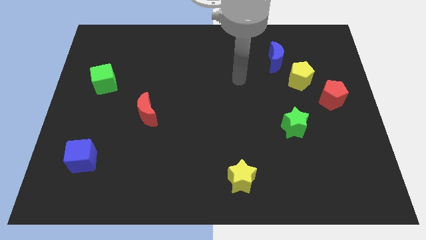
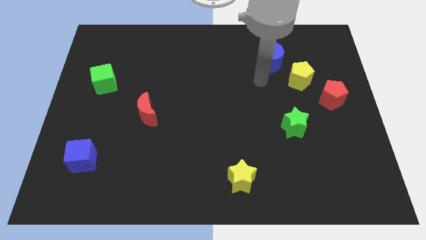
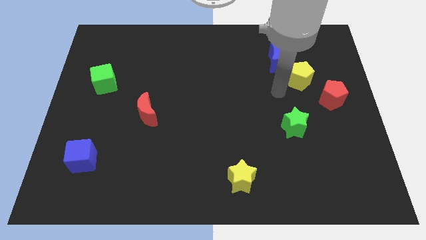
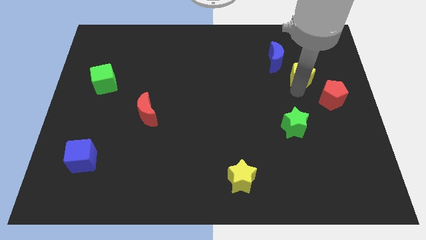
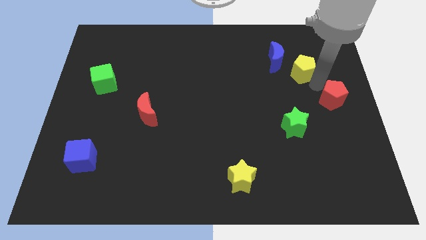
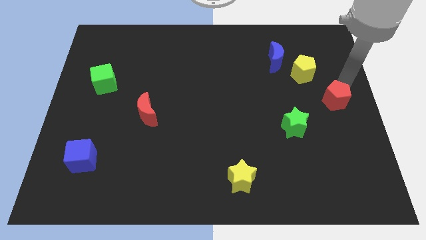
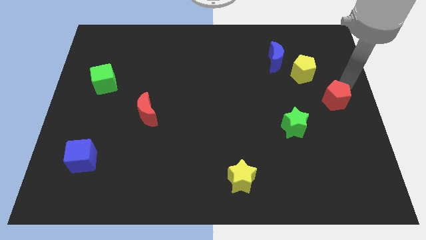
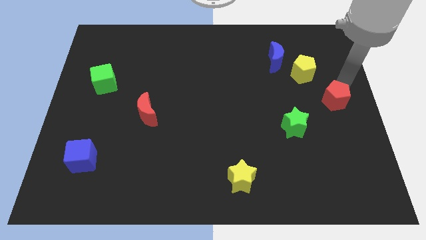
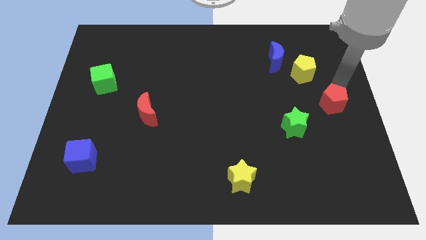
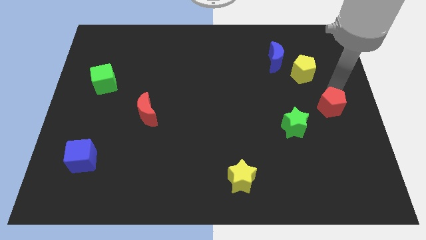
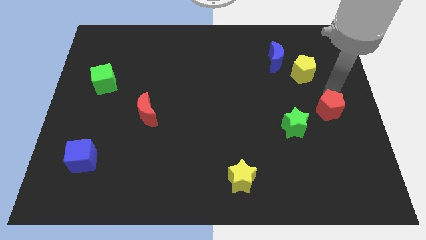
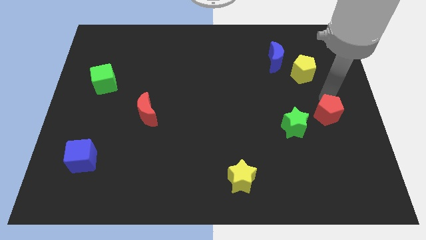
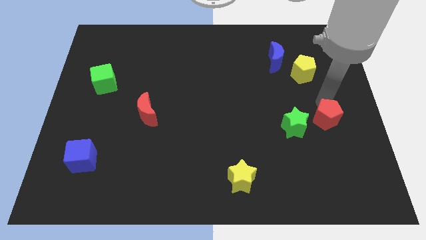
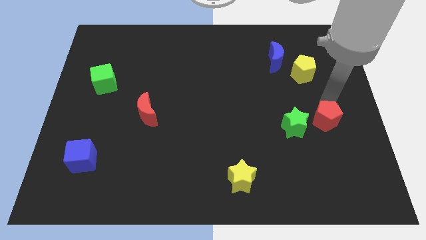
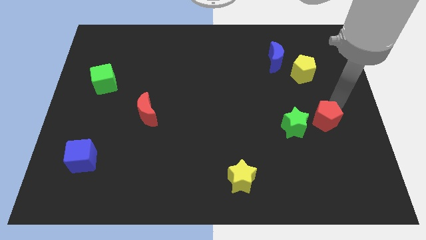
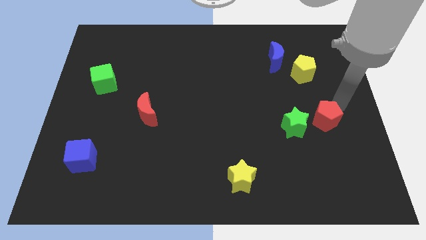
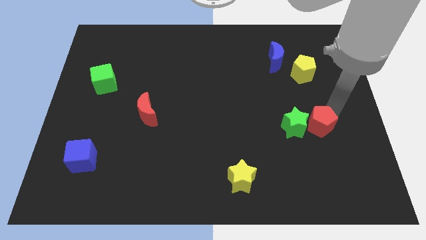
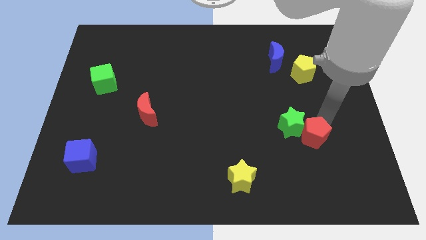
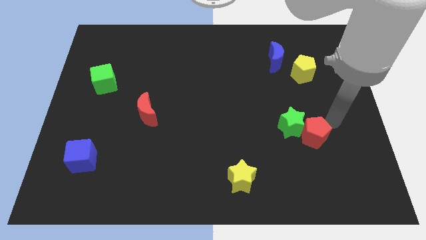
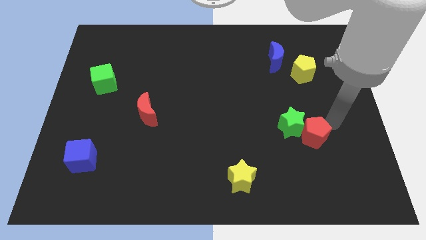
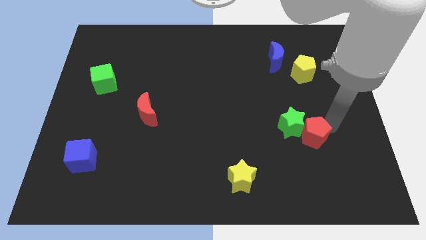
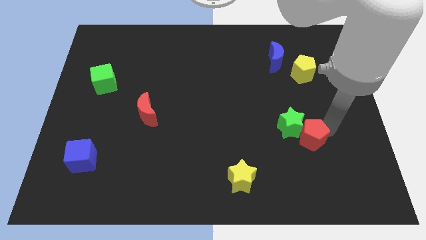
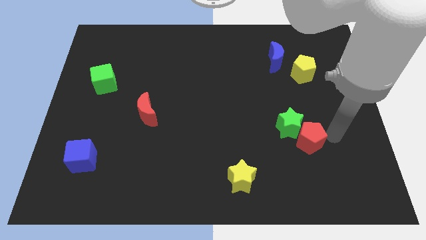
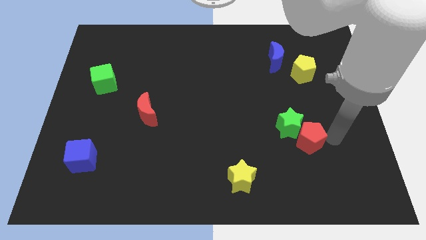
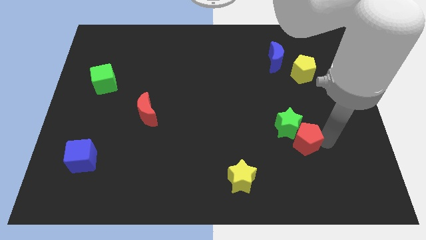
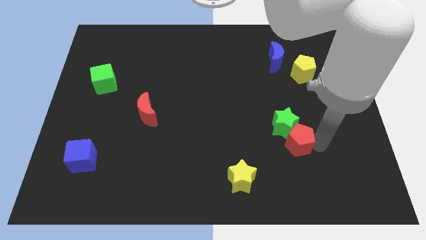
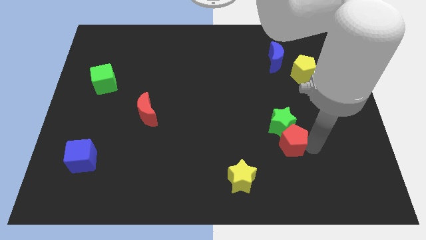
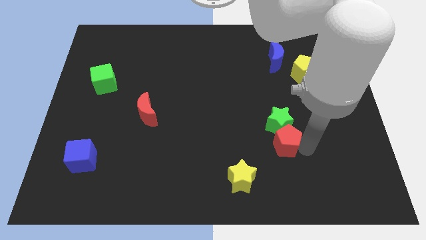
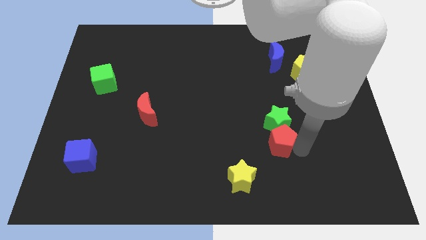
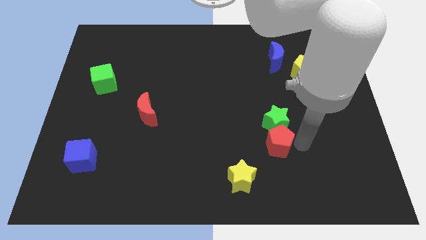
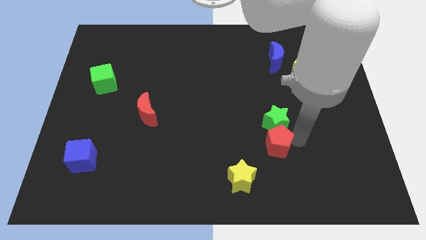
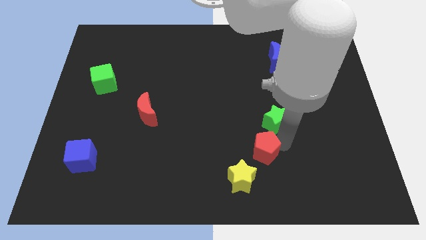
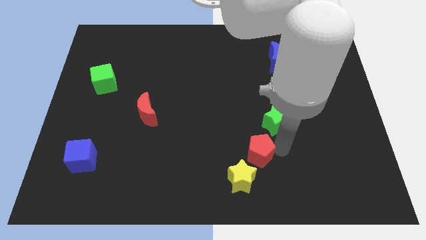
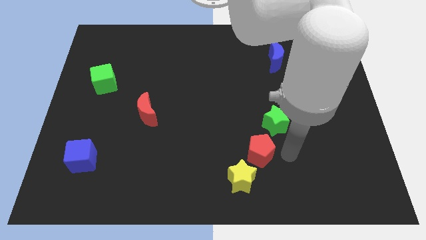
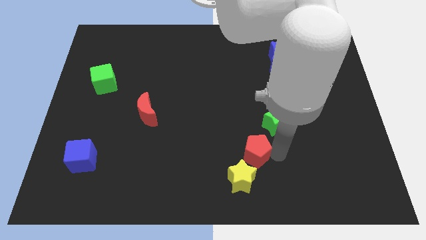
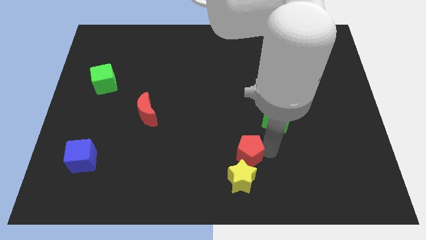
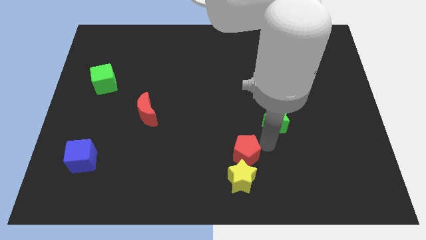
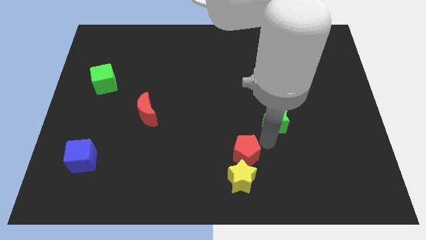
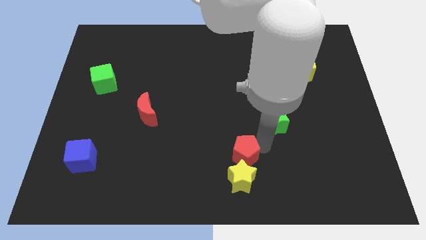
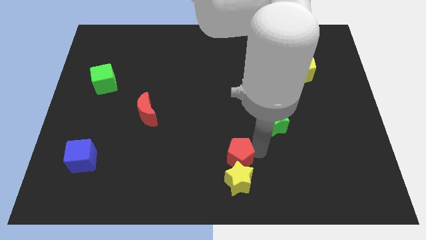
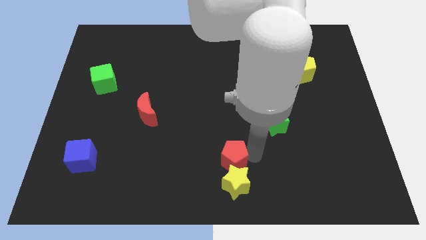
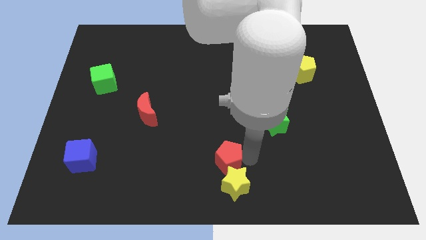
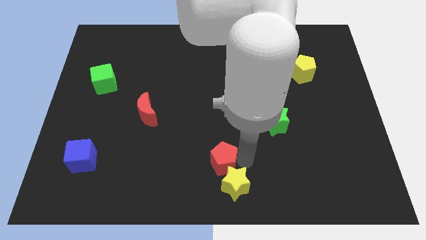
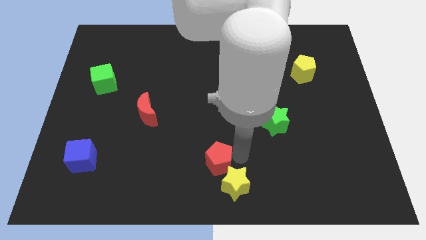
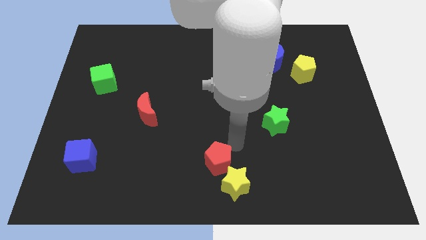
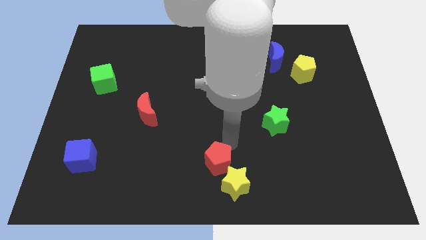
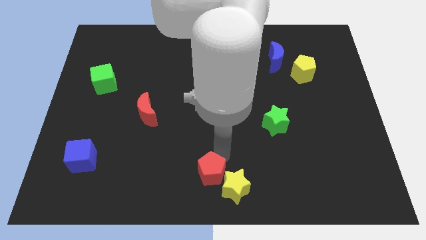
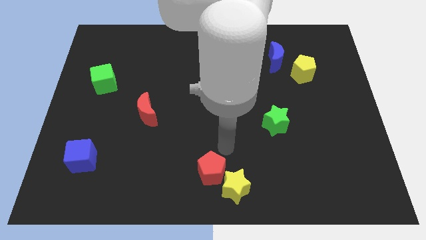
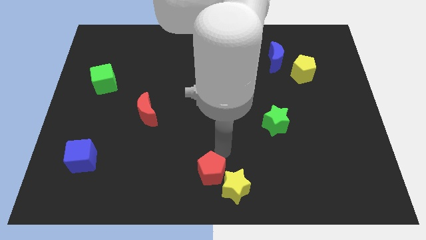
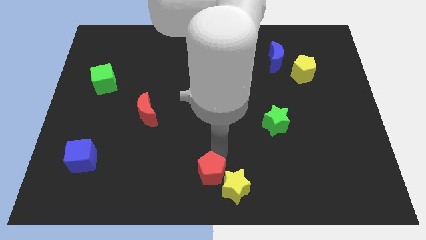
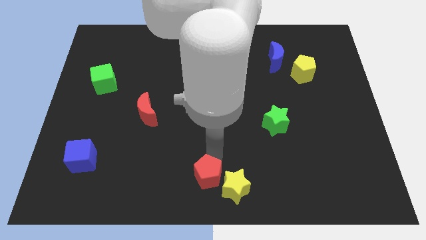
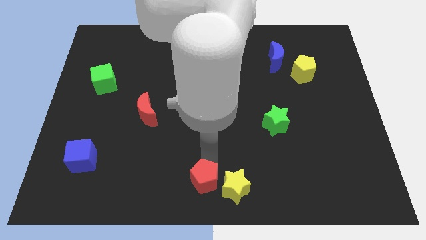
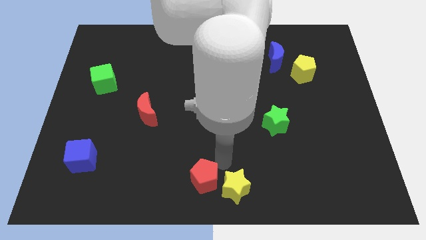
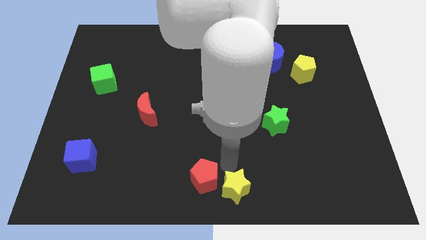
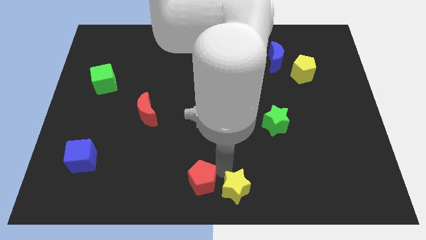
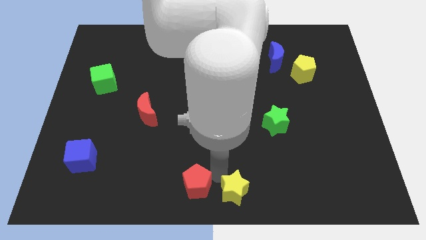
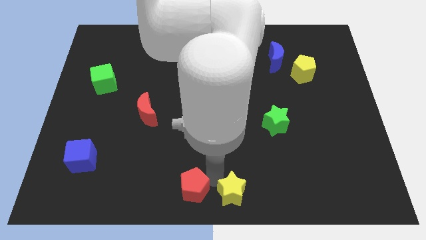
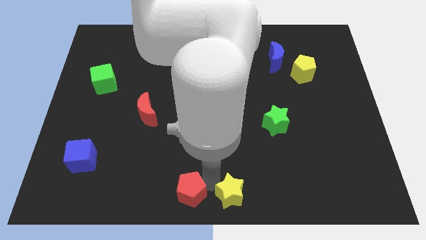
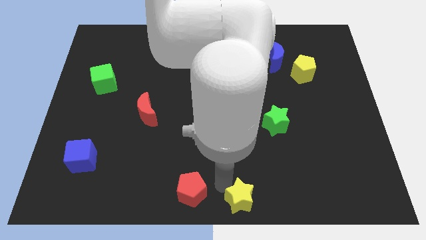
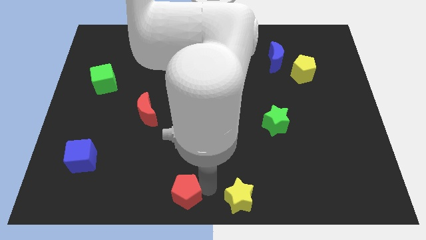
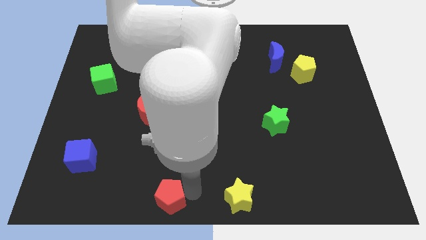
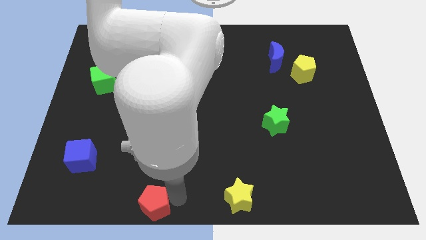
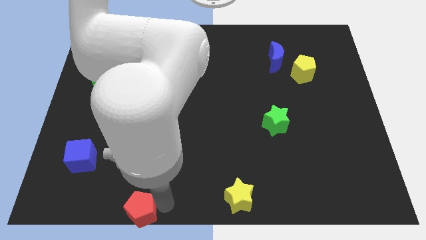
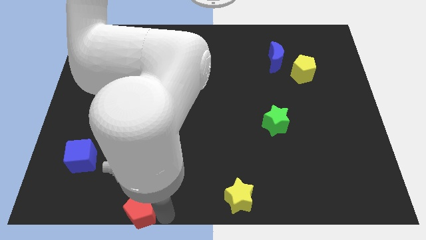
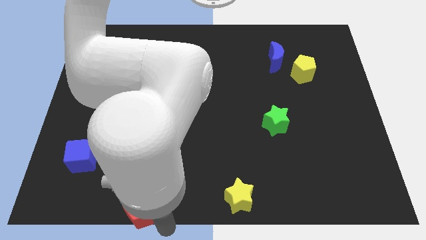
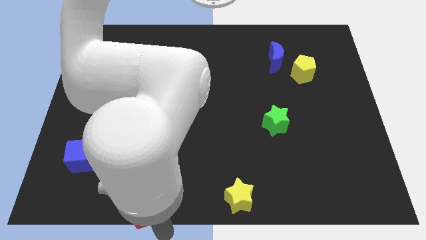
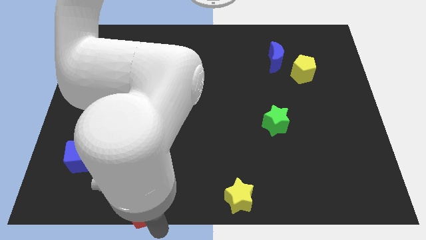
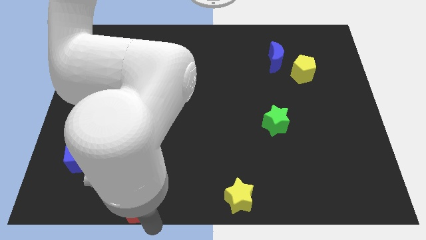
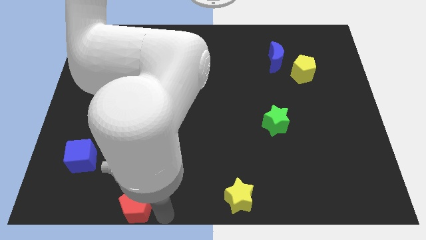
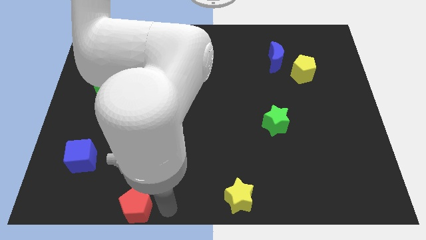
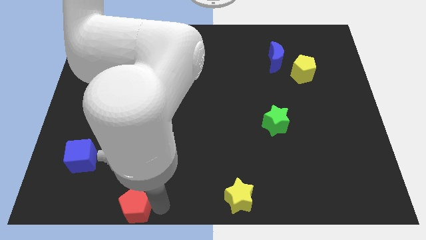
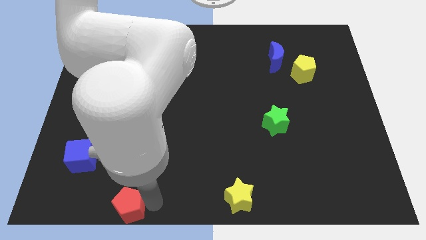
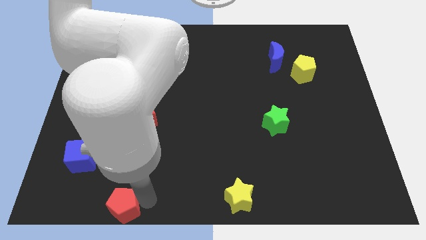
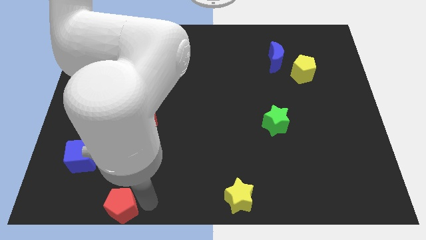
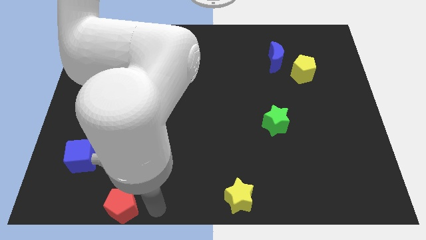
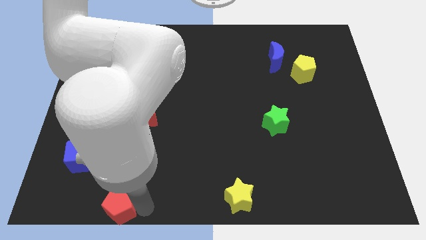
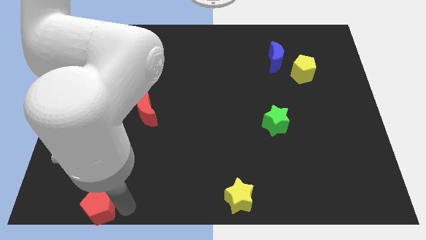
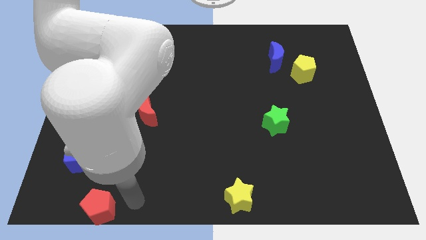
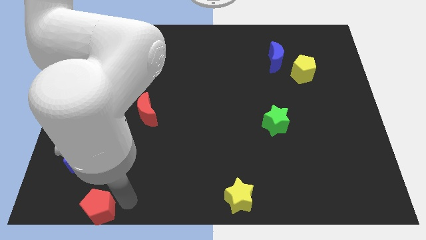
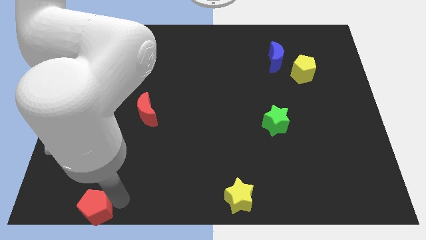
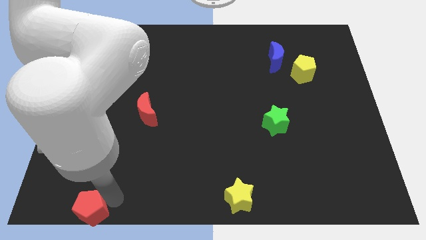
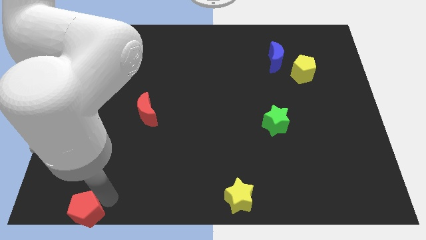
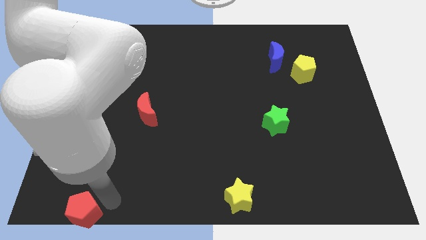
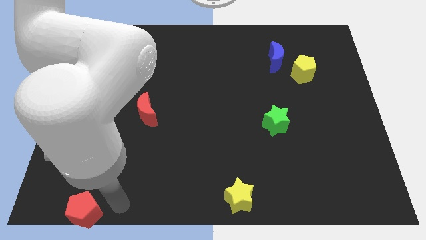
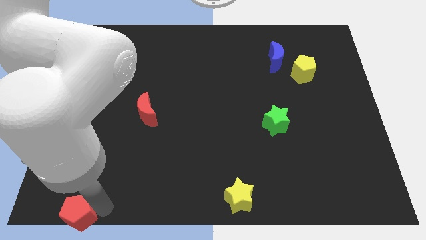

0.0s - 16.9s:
put the red pentagon to the bottom left
